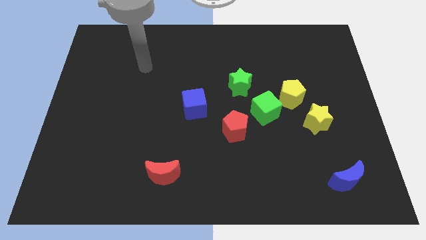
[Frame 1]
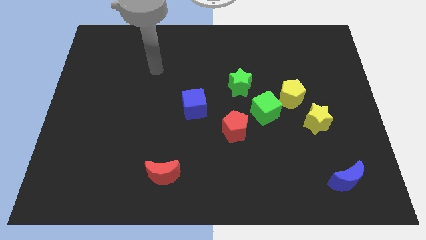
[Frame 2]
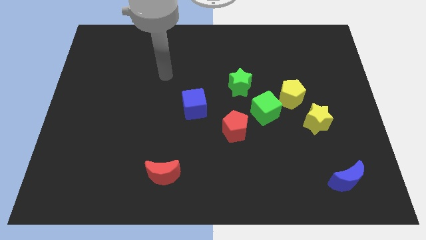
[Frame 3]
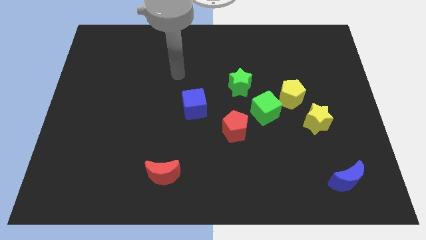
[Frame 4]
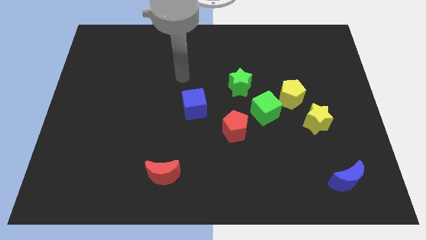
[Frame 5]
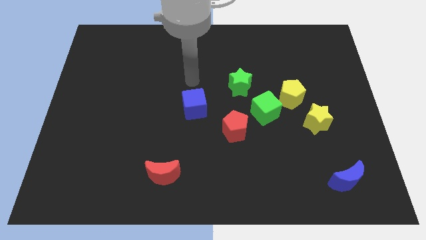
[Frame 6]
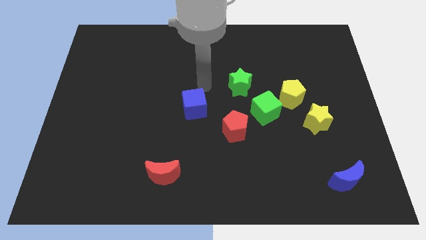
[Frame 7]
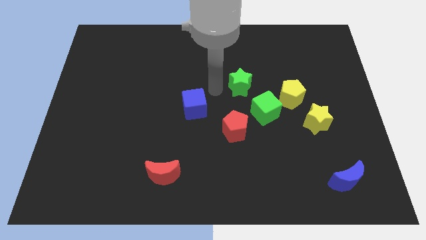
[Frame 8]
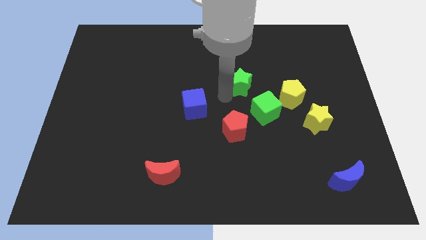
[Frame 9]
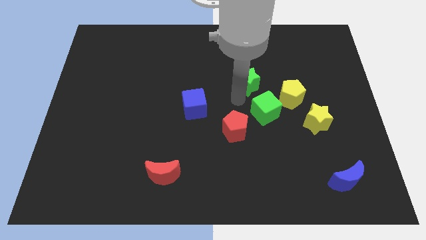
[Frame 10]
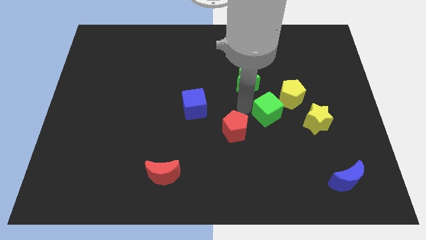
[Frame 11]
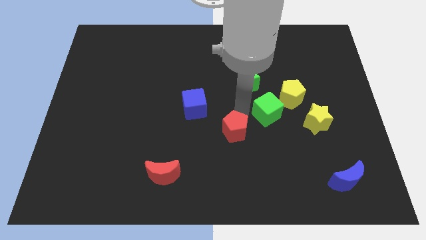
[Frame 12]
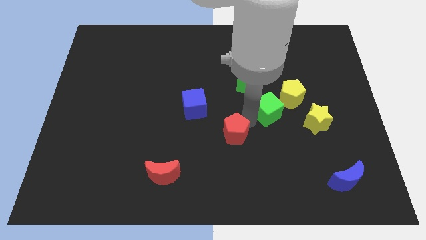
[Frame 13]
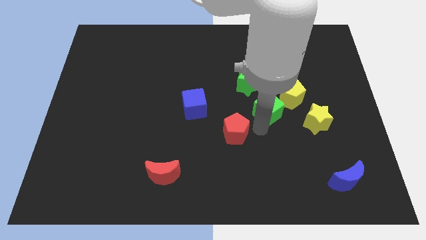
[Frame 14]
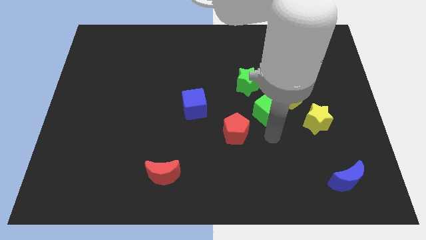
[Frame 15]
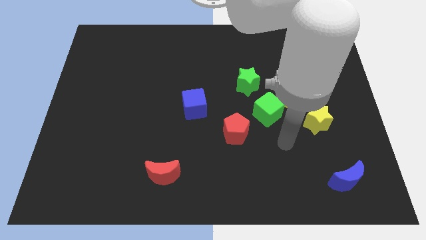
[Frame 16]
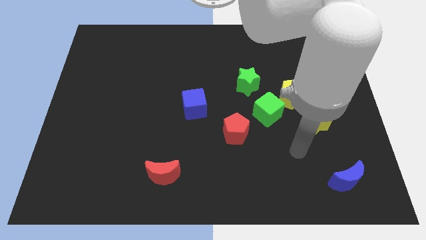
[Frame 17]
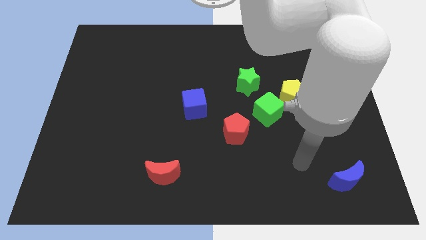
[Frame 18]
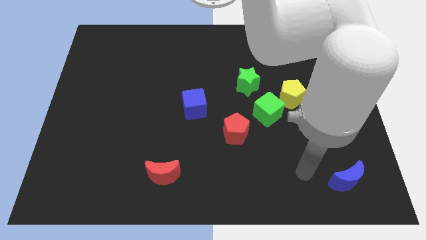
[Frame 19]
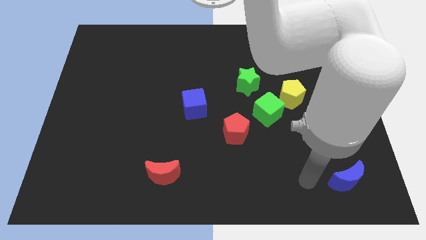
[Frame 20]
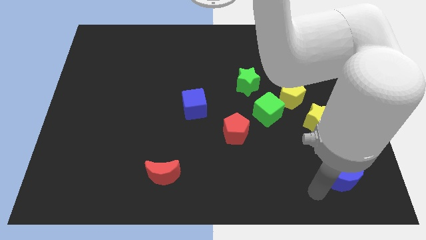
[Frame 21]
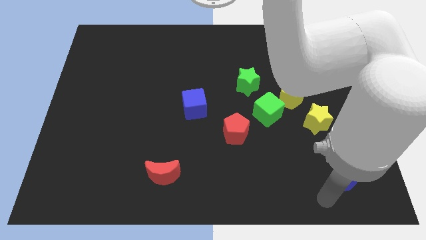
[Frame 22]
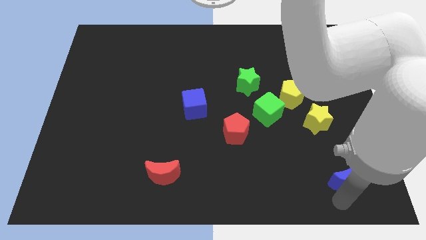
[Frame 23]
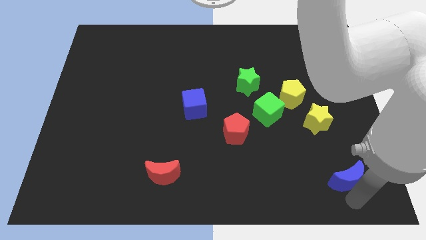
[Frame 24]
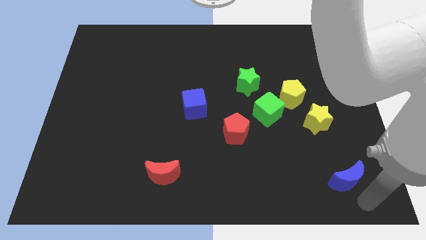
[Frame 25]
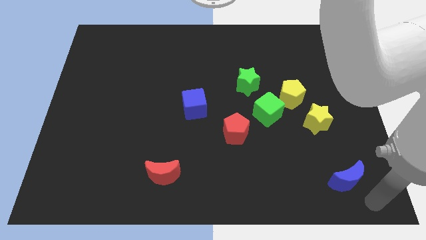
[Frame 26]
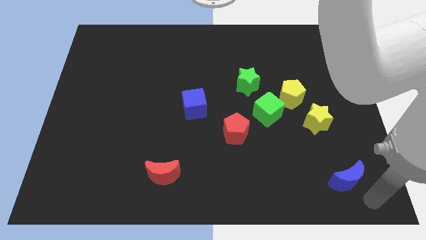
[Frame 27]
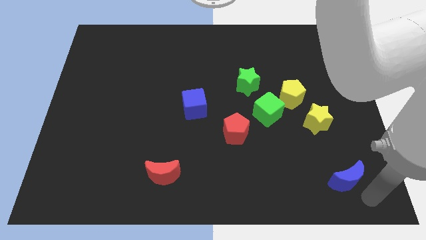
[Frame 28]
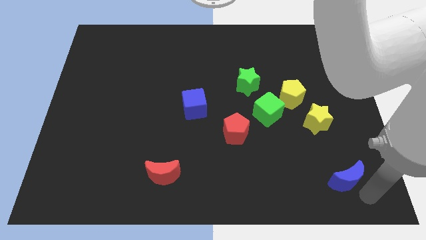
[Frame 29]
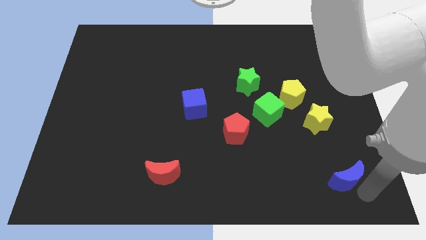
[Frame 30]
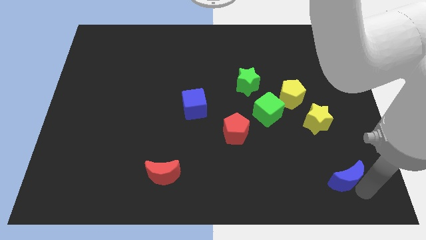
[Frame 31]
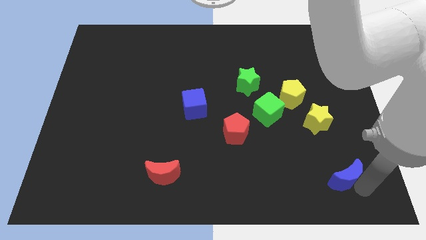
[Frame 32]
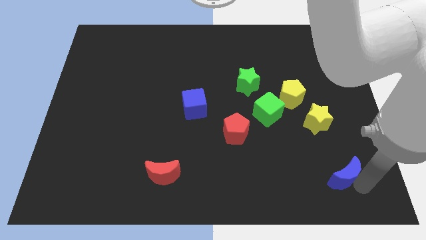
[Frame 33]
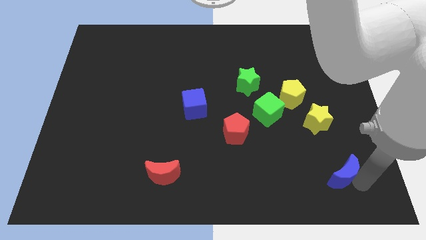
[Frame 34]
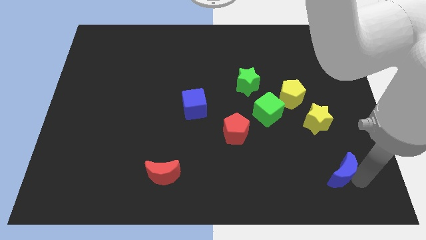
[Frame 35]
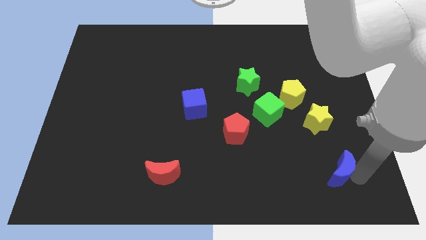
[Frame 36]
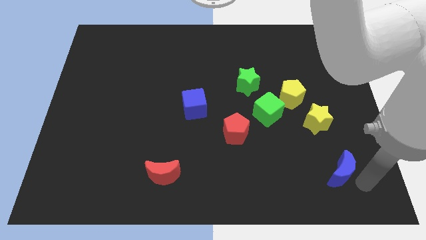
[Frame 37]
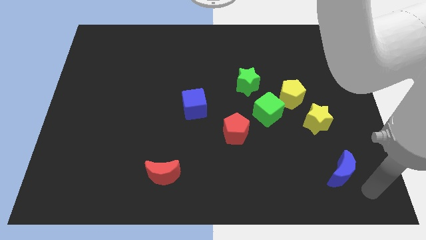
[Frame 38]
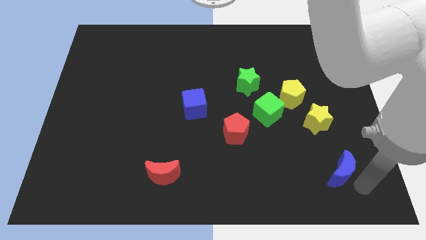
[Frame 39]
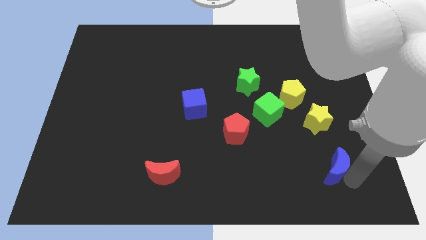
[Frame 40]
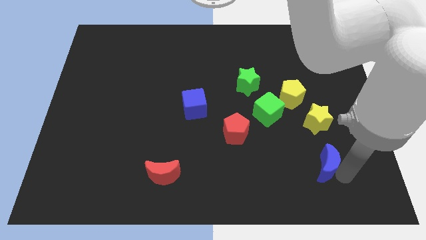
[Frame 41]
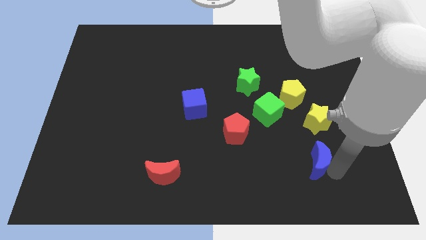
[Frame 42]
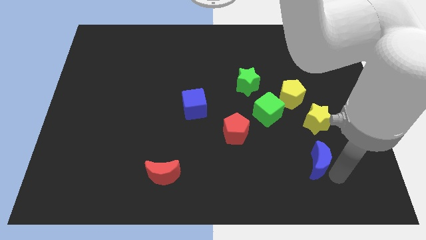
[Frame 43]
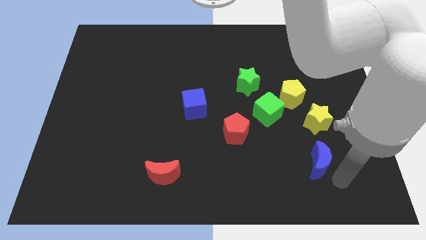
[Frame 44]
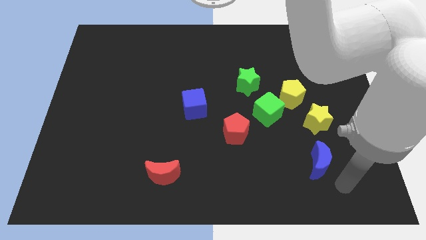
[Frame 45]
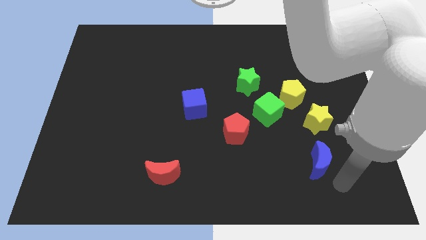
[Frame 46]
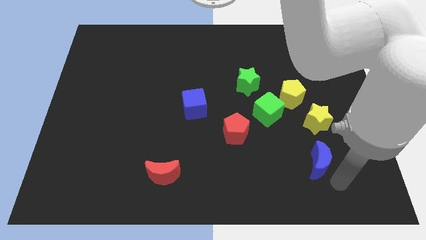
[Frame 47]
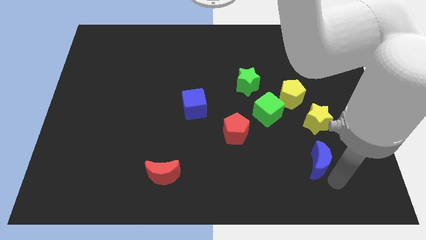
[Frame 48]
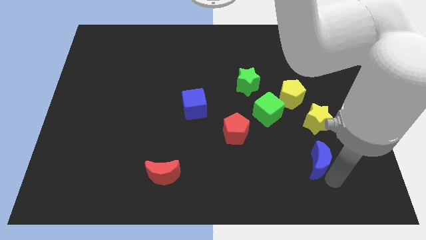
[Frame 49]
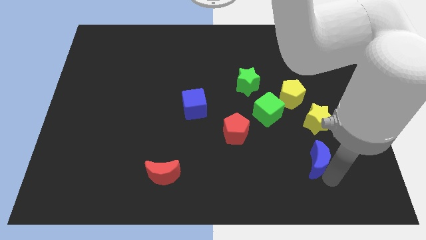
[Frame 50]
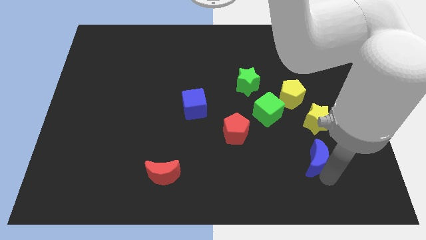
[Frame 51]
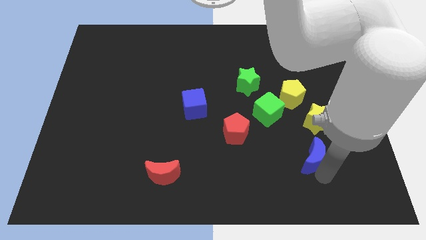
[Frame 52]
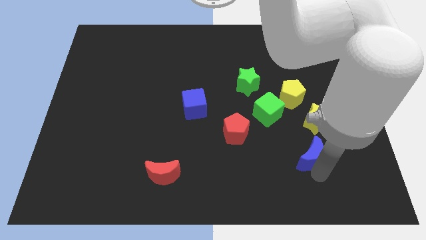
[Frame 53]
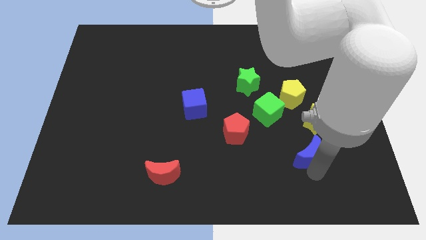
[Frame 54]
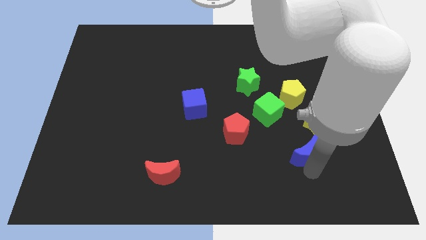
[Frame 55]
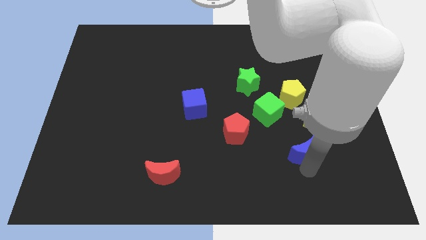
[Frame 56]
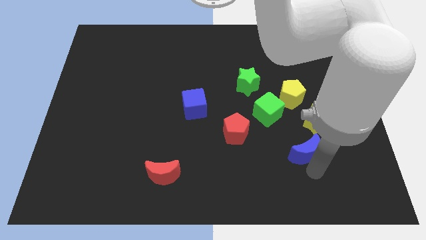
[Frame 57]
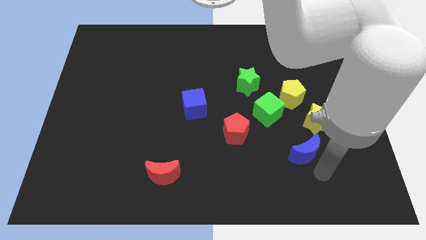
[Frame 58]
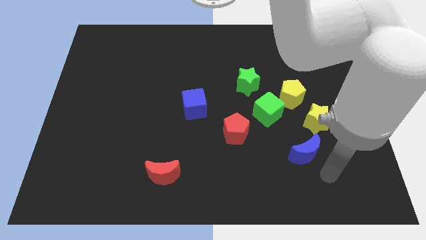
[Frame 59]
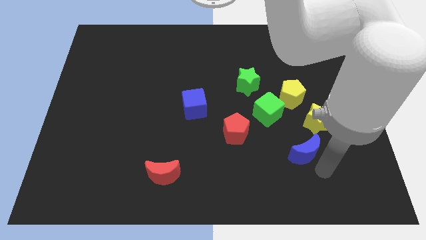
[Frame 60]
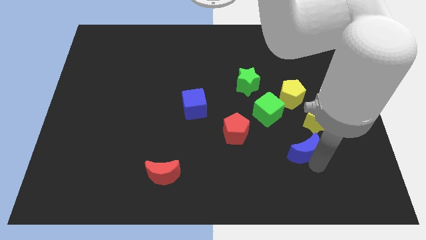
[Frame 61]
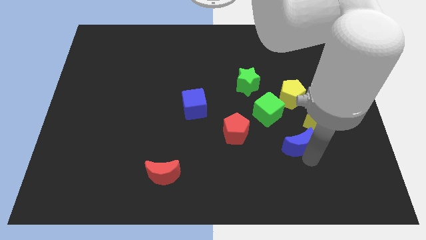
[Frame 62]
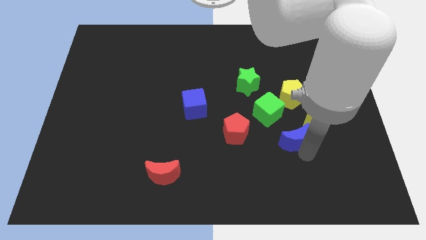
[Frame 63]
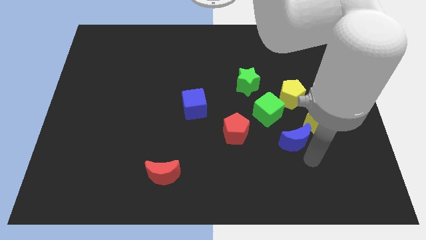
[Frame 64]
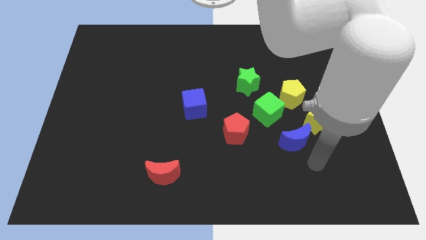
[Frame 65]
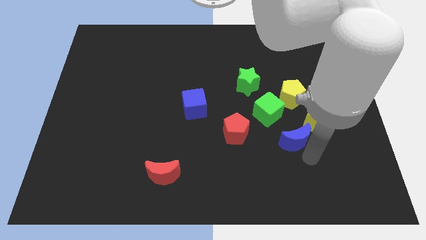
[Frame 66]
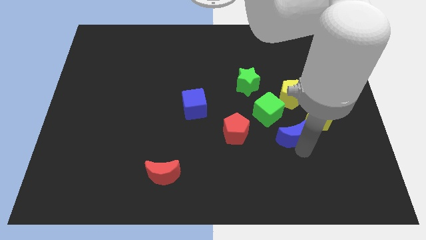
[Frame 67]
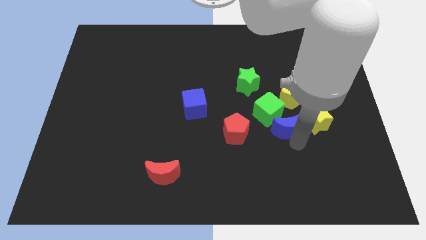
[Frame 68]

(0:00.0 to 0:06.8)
push the blue moon to the green cube
